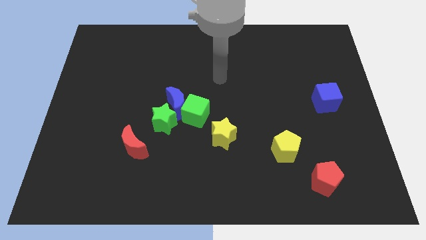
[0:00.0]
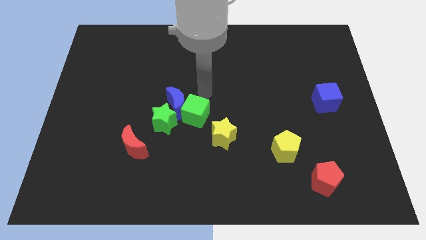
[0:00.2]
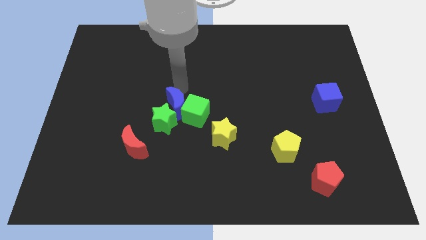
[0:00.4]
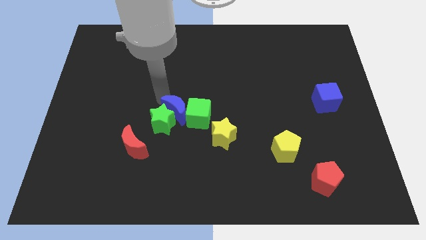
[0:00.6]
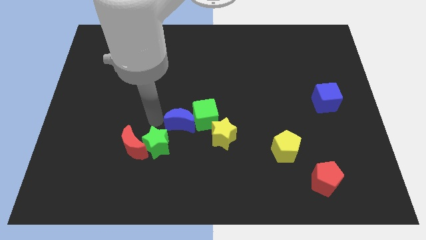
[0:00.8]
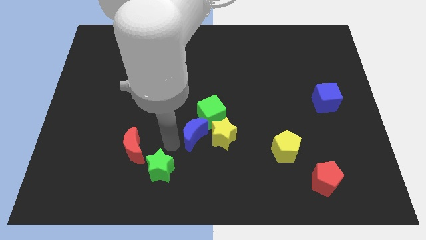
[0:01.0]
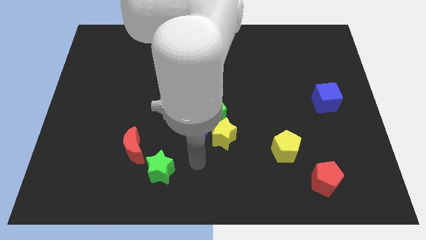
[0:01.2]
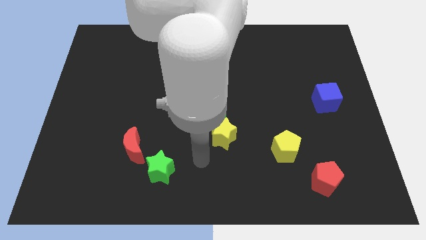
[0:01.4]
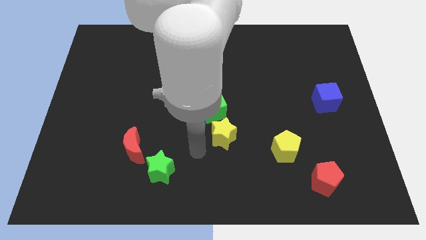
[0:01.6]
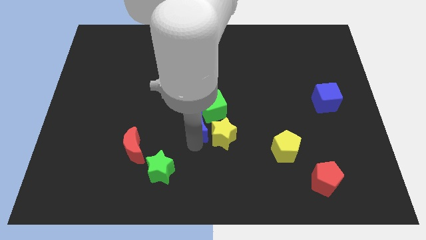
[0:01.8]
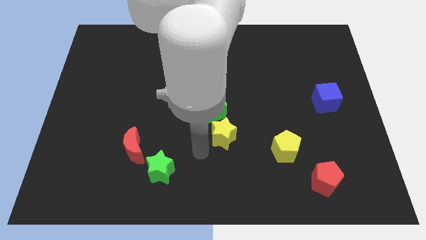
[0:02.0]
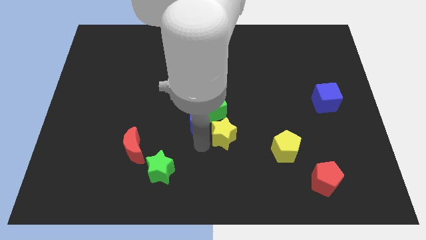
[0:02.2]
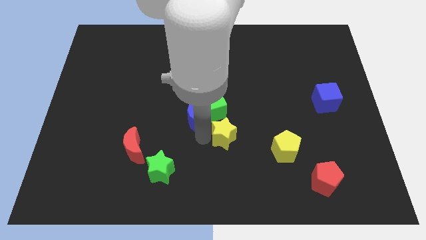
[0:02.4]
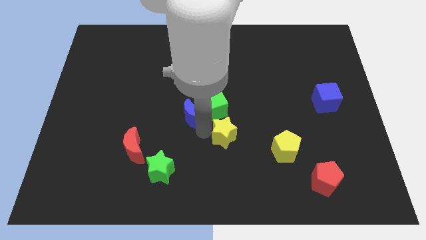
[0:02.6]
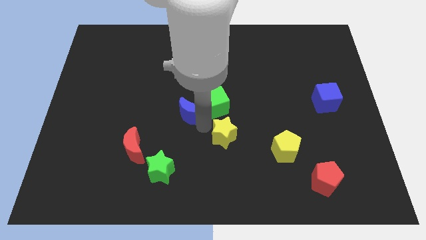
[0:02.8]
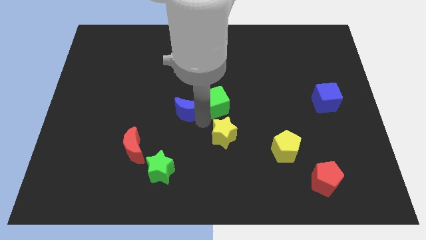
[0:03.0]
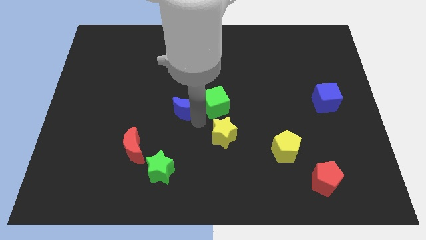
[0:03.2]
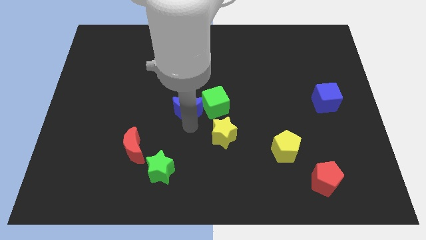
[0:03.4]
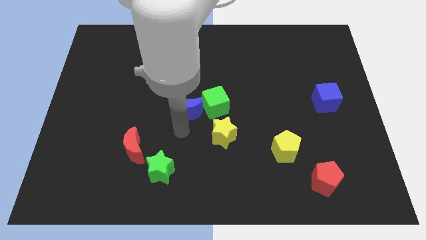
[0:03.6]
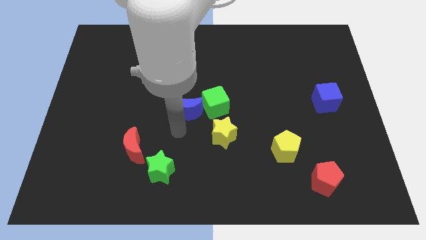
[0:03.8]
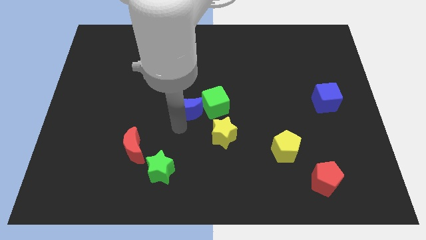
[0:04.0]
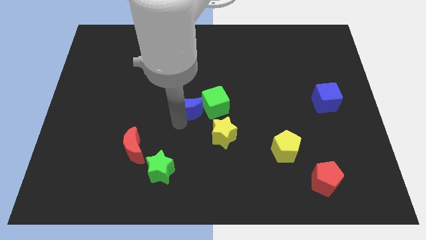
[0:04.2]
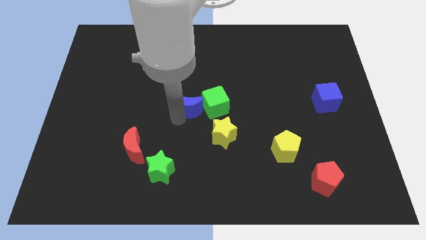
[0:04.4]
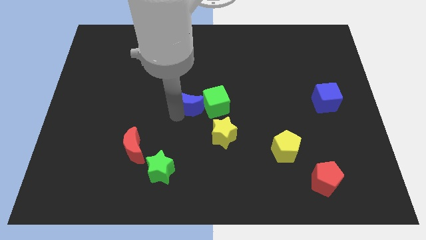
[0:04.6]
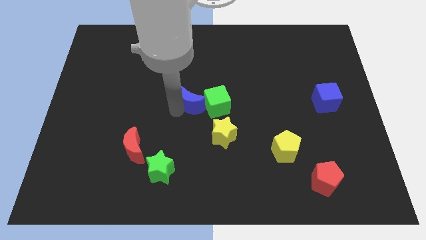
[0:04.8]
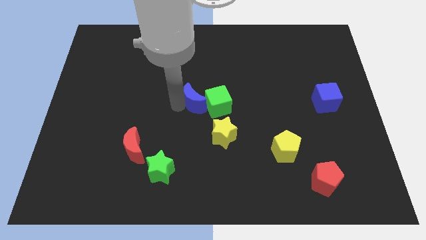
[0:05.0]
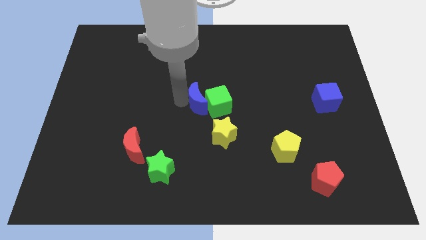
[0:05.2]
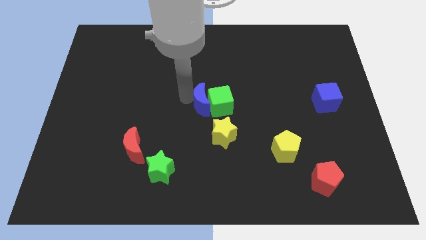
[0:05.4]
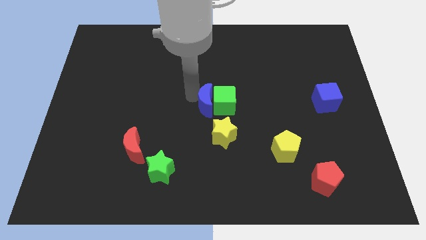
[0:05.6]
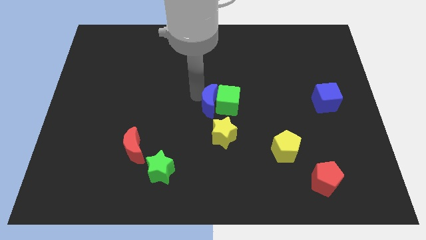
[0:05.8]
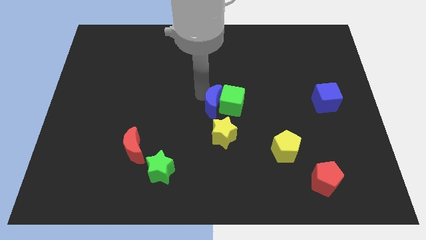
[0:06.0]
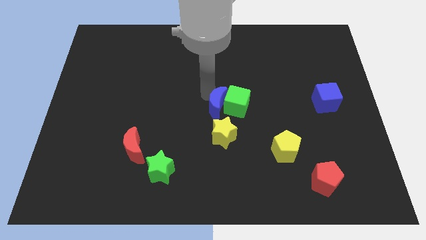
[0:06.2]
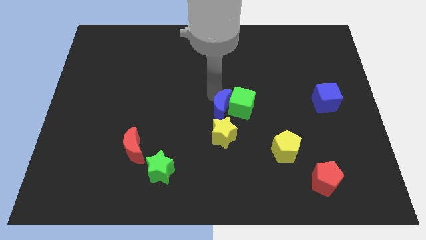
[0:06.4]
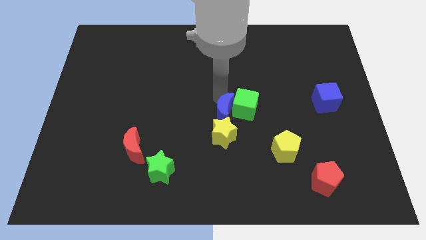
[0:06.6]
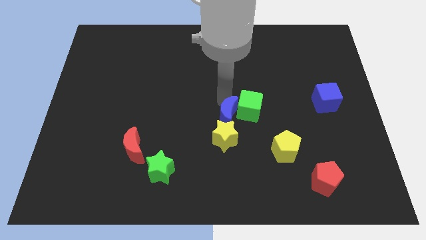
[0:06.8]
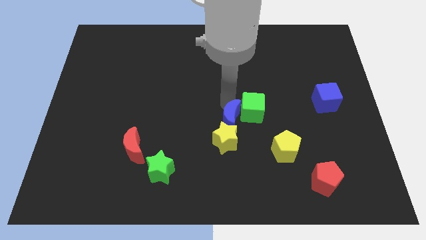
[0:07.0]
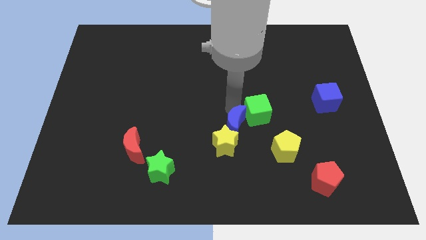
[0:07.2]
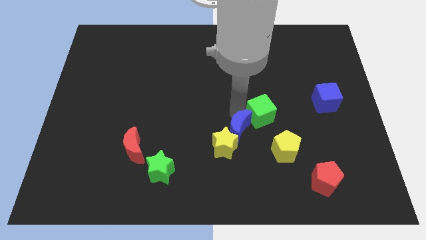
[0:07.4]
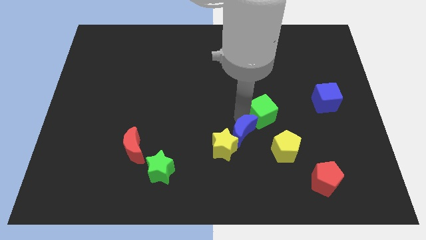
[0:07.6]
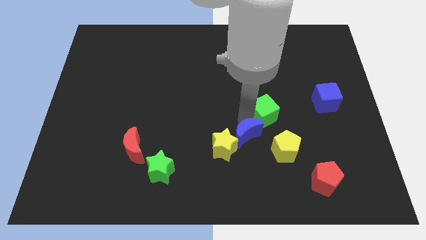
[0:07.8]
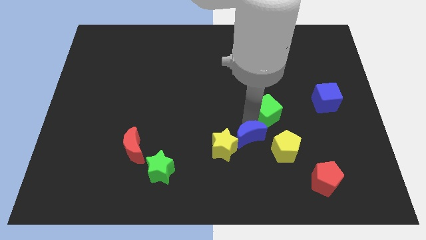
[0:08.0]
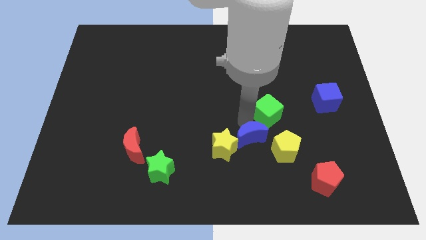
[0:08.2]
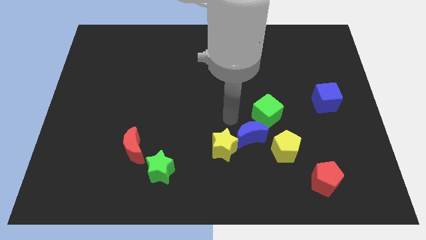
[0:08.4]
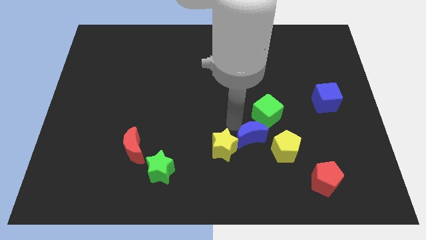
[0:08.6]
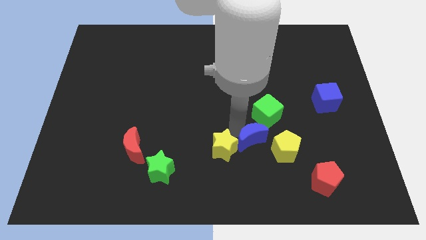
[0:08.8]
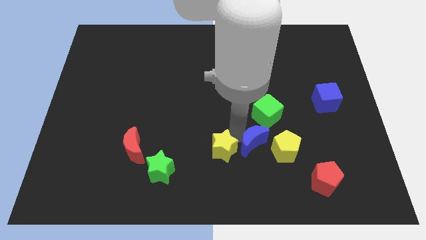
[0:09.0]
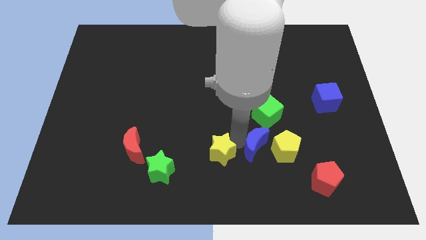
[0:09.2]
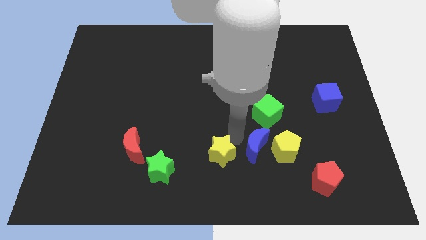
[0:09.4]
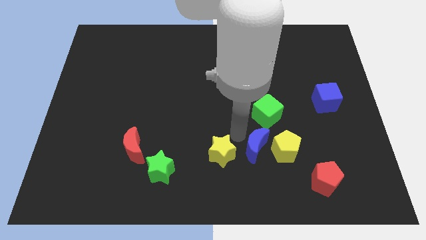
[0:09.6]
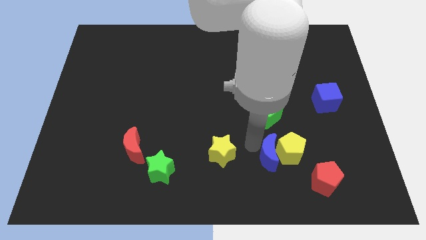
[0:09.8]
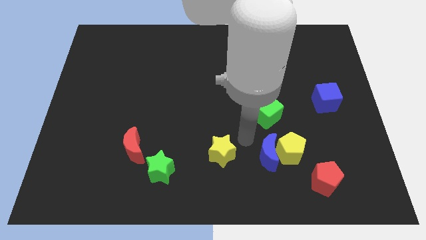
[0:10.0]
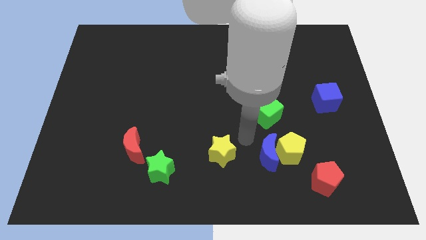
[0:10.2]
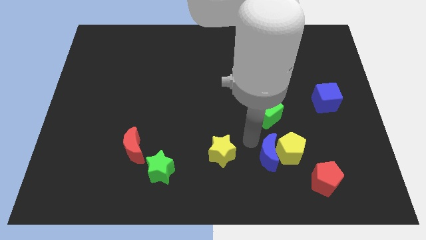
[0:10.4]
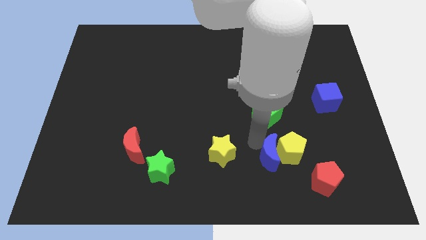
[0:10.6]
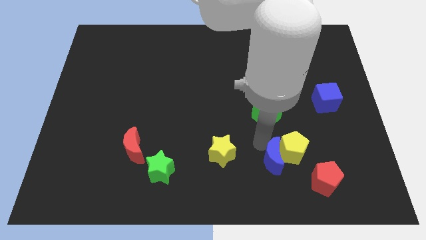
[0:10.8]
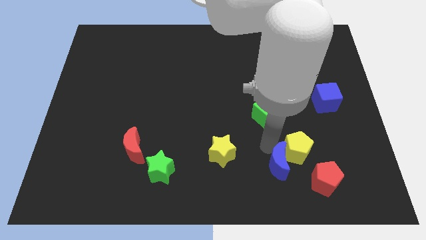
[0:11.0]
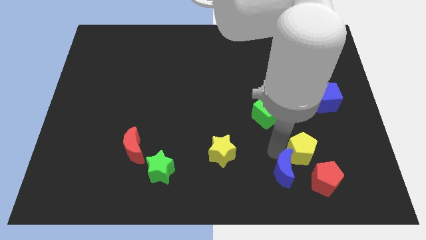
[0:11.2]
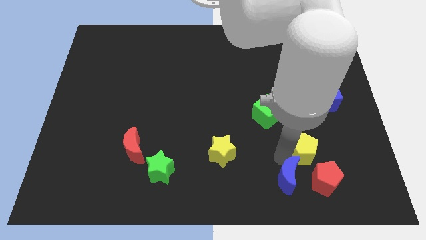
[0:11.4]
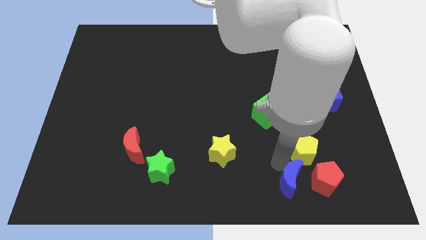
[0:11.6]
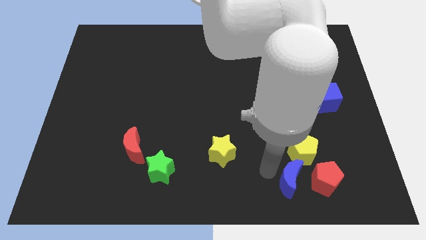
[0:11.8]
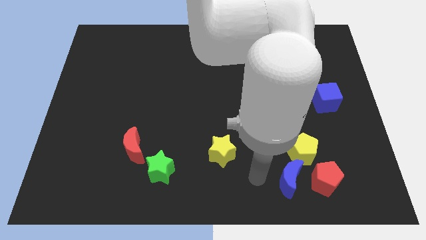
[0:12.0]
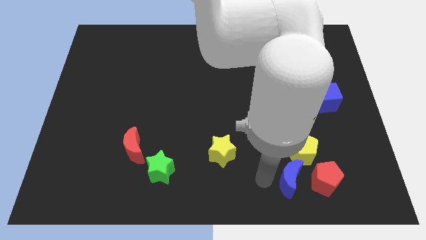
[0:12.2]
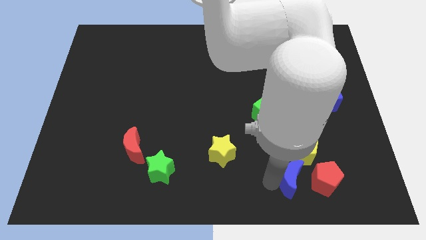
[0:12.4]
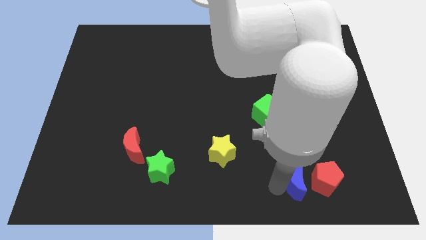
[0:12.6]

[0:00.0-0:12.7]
put the blue moon to the red pentagon
